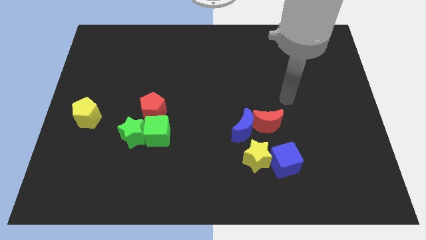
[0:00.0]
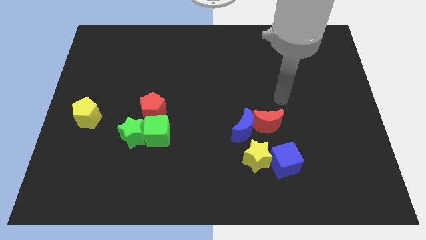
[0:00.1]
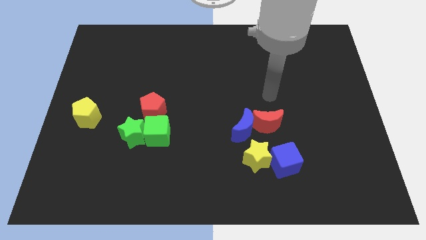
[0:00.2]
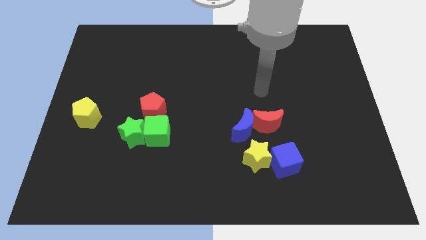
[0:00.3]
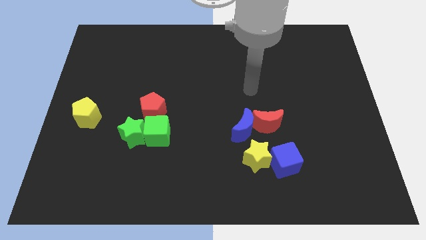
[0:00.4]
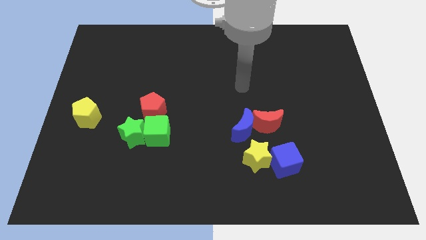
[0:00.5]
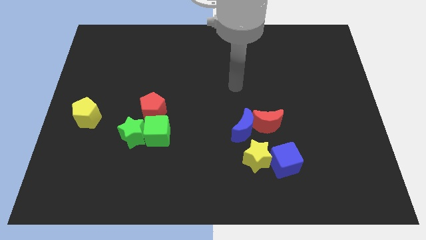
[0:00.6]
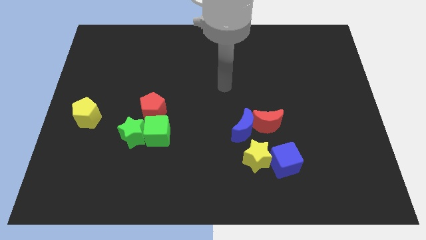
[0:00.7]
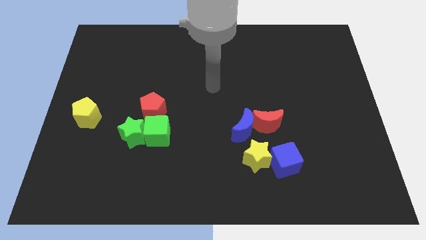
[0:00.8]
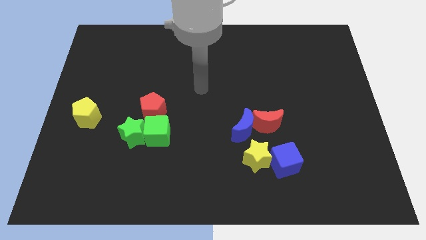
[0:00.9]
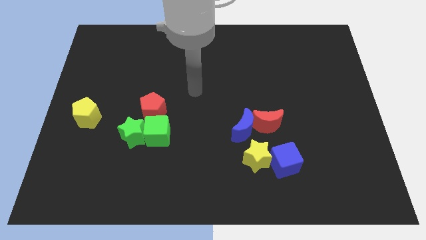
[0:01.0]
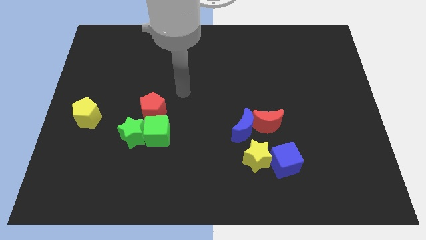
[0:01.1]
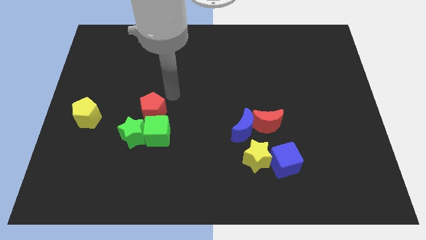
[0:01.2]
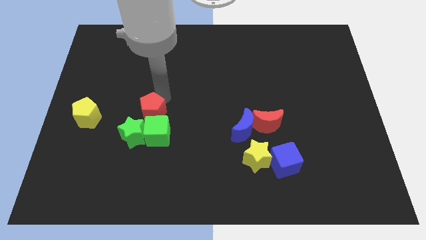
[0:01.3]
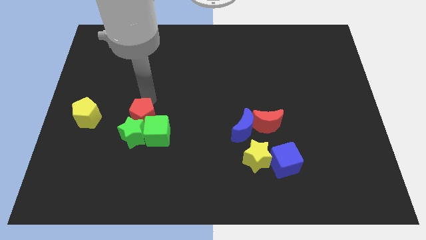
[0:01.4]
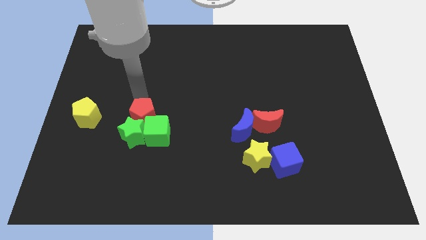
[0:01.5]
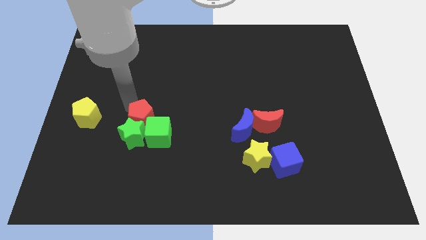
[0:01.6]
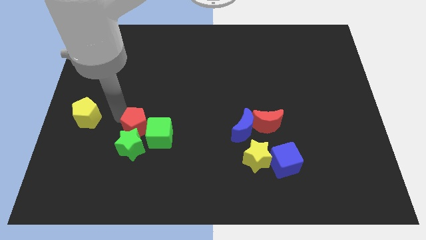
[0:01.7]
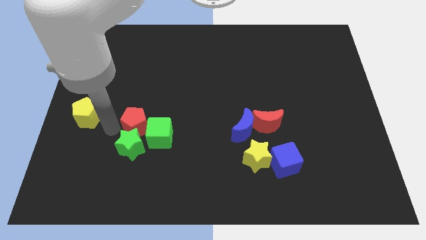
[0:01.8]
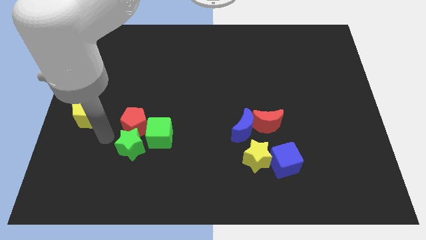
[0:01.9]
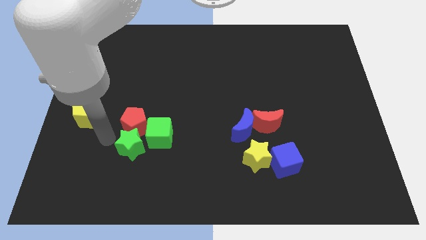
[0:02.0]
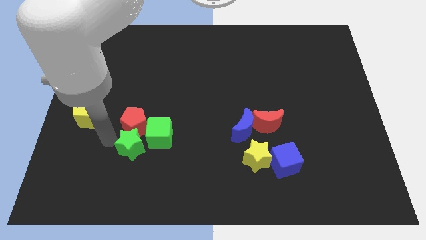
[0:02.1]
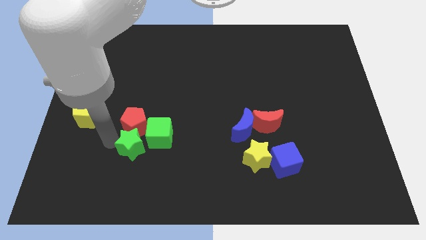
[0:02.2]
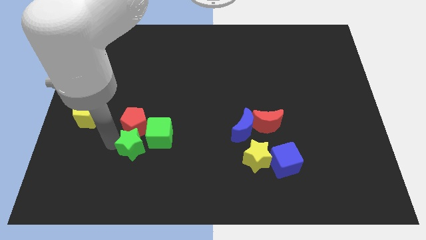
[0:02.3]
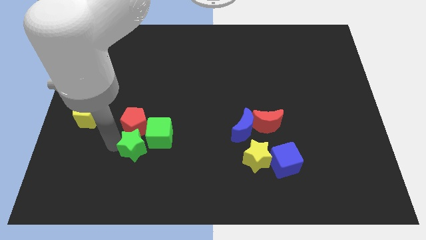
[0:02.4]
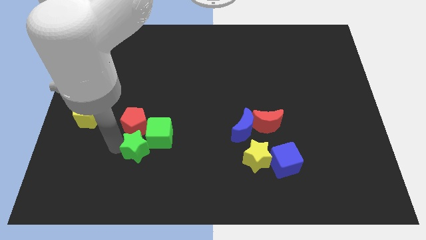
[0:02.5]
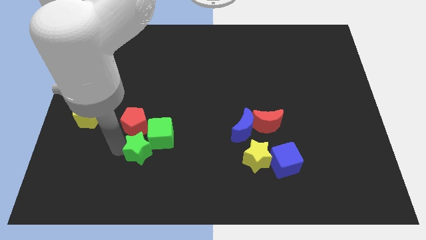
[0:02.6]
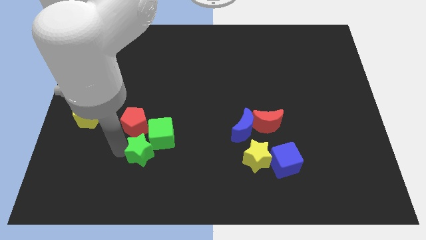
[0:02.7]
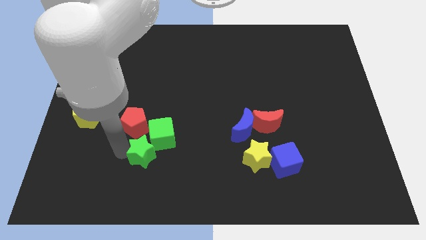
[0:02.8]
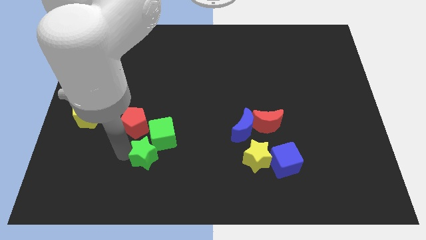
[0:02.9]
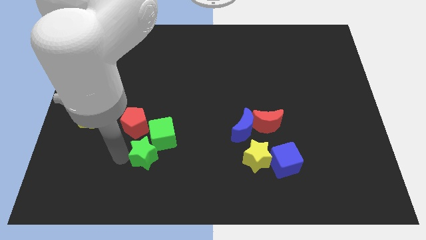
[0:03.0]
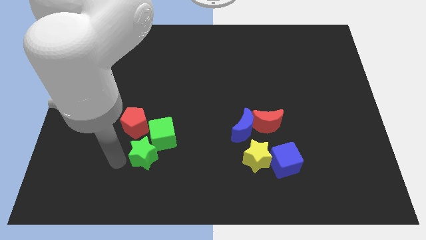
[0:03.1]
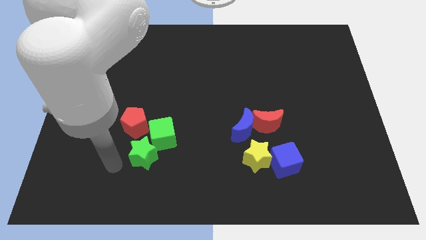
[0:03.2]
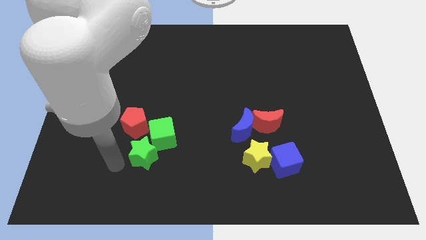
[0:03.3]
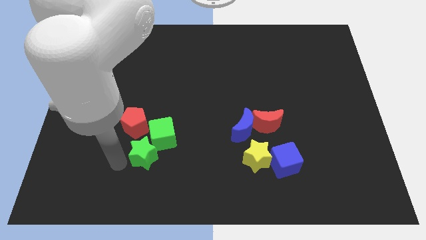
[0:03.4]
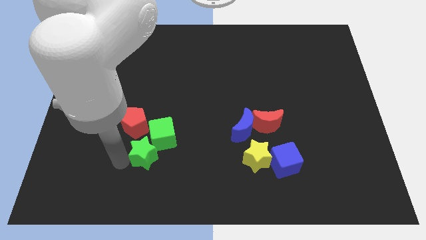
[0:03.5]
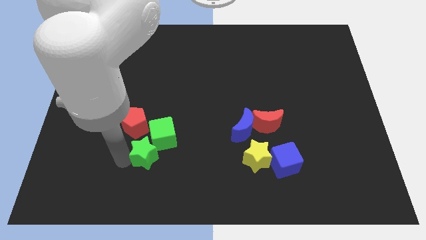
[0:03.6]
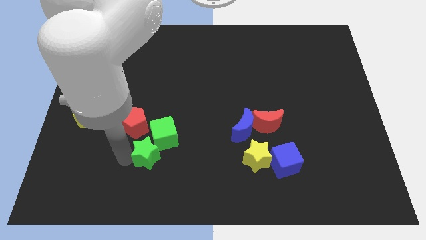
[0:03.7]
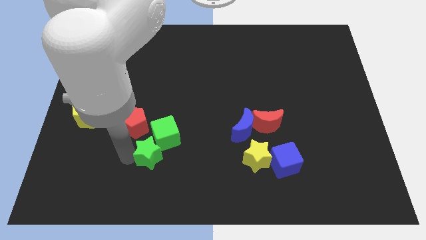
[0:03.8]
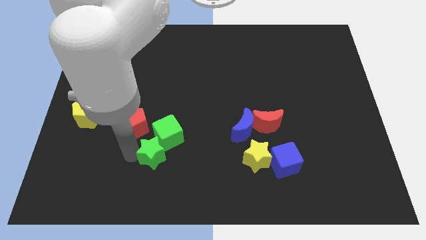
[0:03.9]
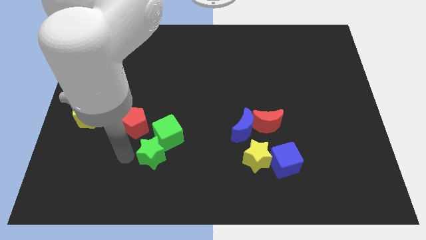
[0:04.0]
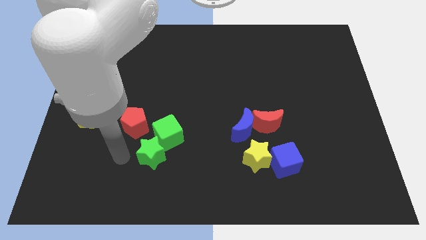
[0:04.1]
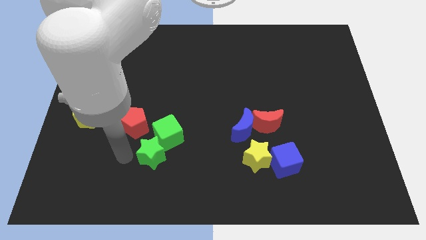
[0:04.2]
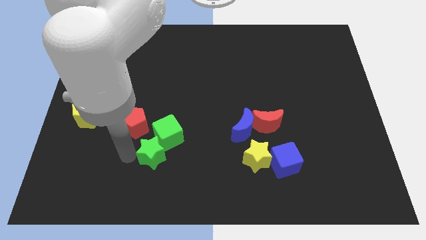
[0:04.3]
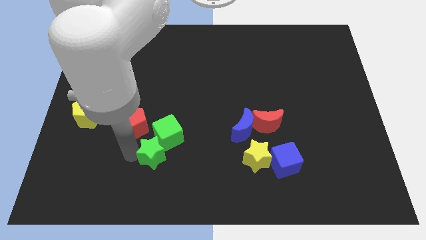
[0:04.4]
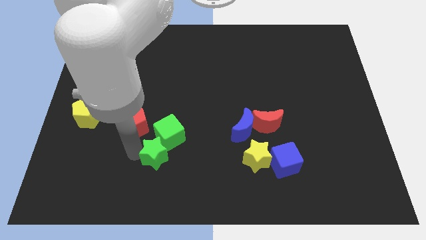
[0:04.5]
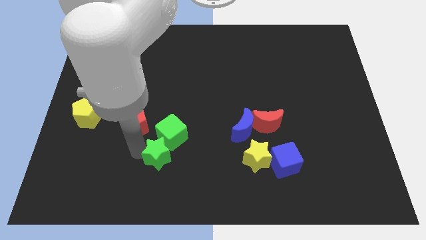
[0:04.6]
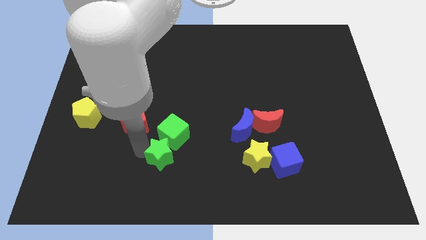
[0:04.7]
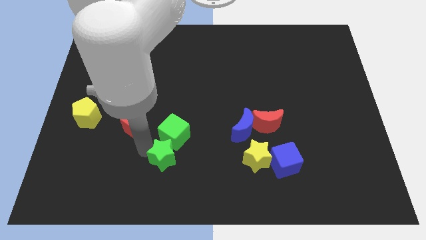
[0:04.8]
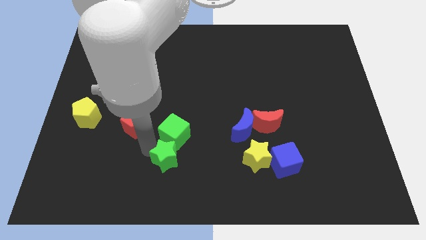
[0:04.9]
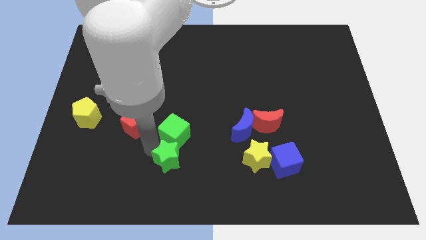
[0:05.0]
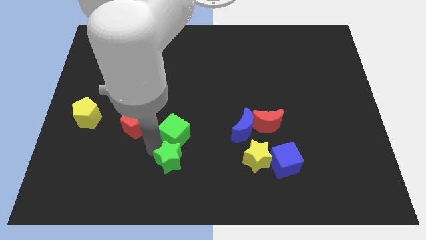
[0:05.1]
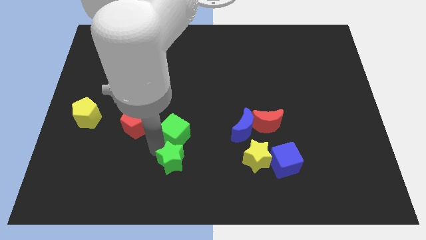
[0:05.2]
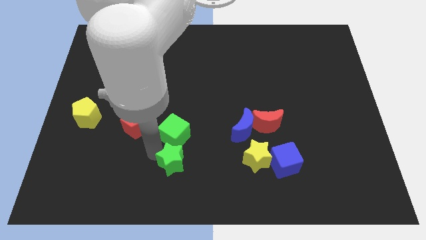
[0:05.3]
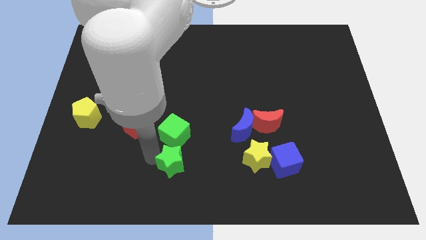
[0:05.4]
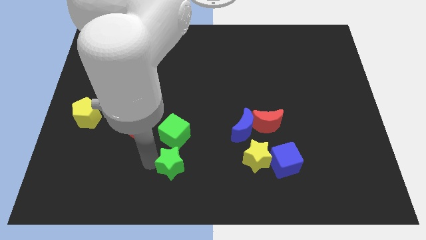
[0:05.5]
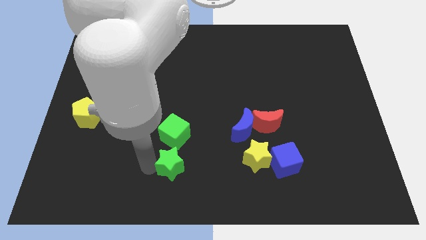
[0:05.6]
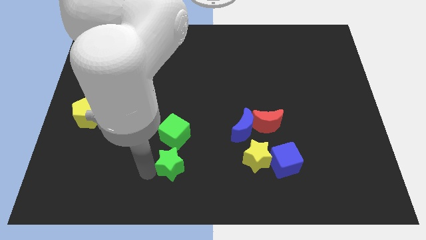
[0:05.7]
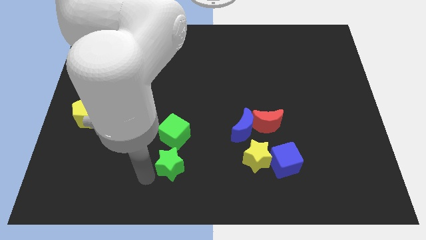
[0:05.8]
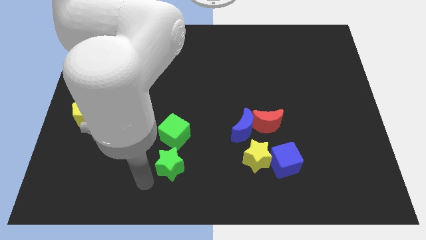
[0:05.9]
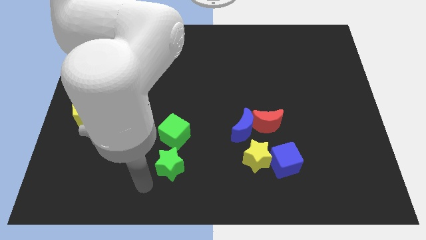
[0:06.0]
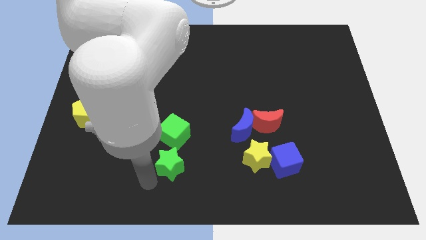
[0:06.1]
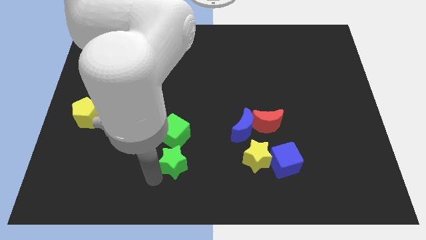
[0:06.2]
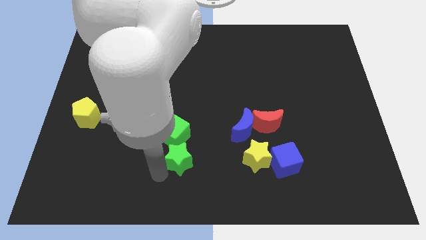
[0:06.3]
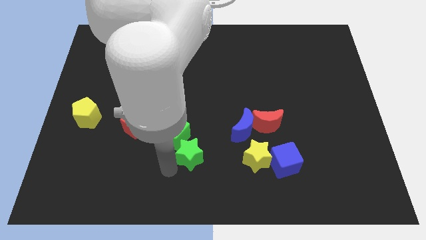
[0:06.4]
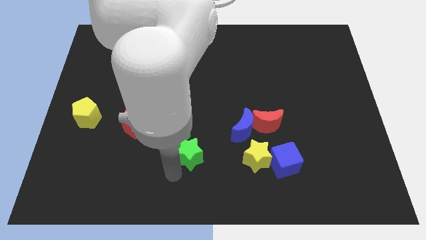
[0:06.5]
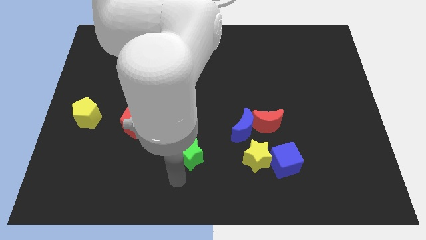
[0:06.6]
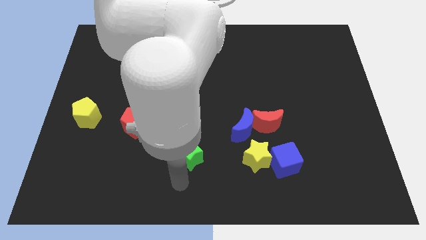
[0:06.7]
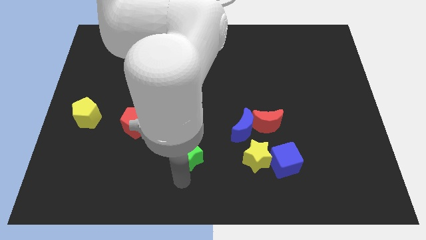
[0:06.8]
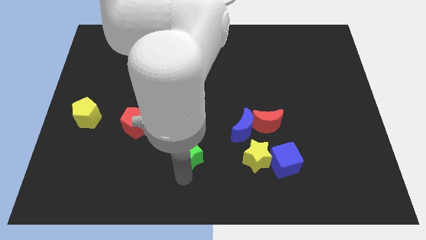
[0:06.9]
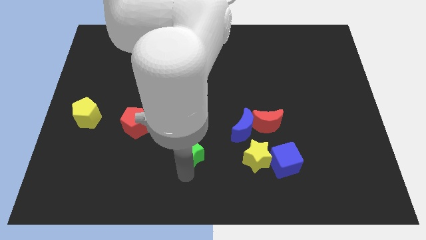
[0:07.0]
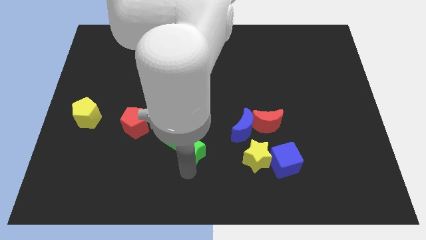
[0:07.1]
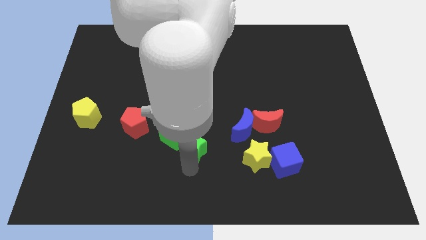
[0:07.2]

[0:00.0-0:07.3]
push the green star to the left side of the blue moon
